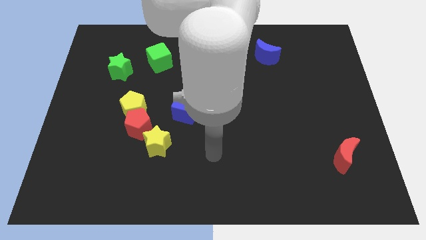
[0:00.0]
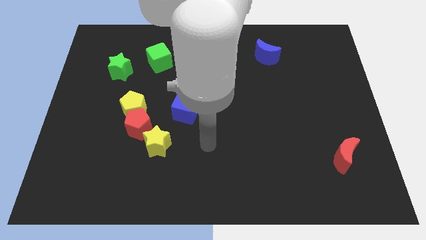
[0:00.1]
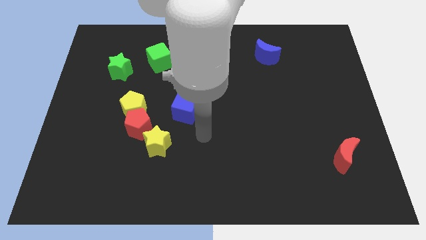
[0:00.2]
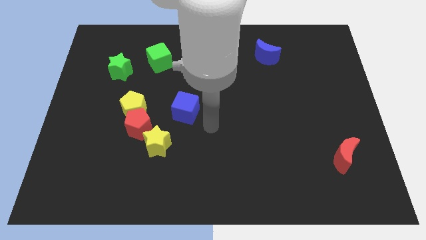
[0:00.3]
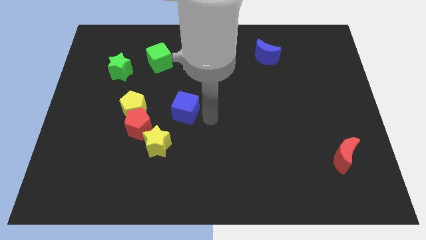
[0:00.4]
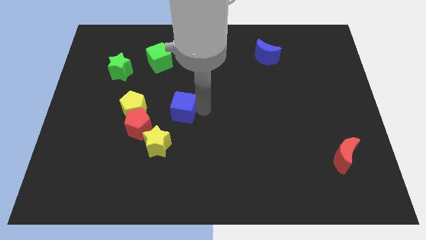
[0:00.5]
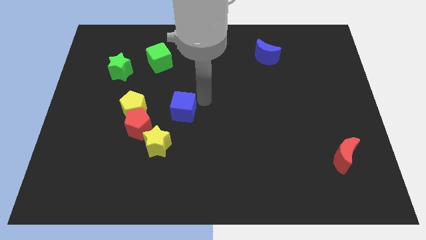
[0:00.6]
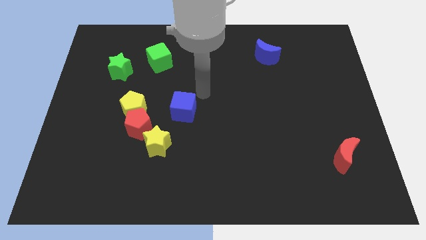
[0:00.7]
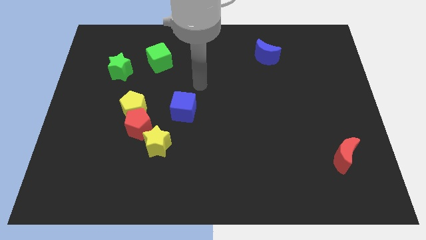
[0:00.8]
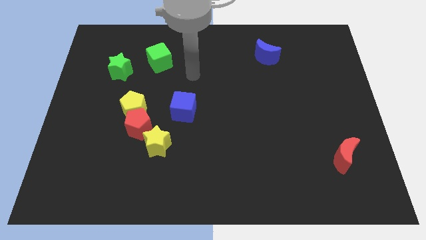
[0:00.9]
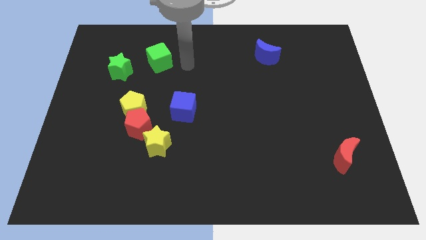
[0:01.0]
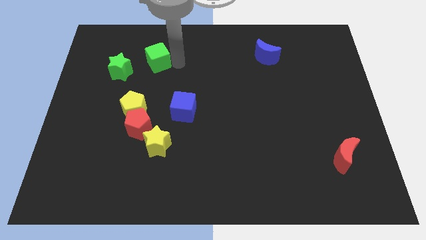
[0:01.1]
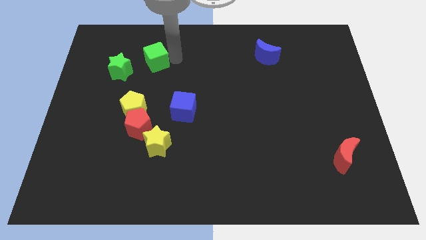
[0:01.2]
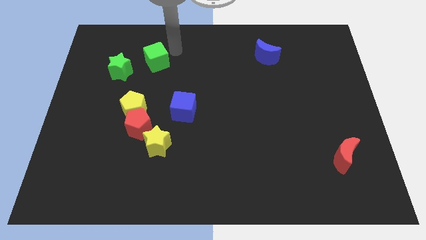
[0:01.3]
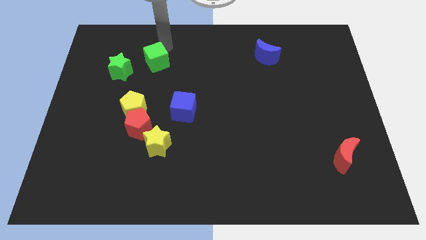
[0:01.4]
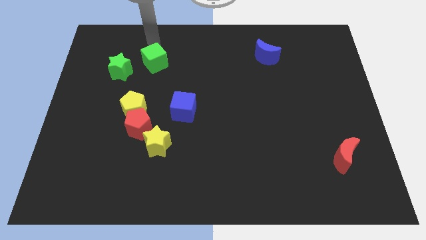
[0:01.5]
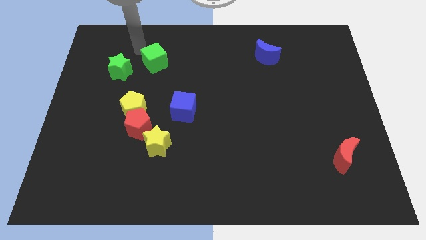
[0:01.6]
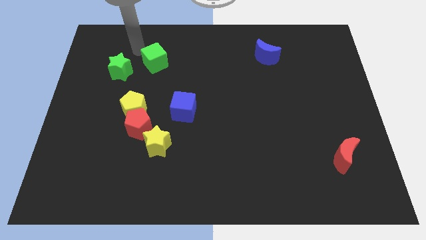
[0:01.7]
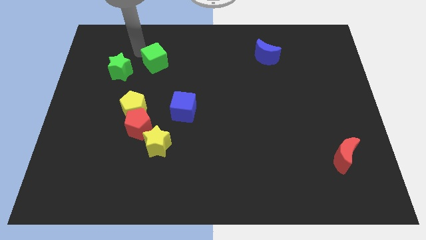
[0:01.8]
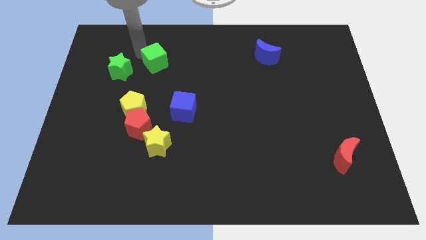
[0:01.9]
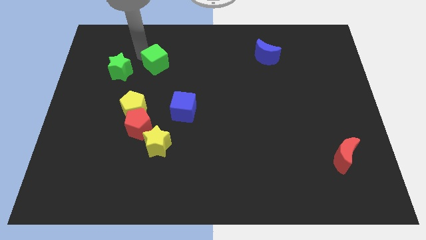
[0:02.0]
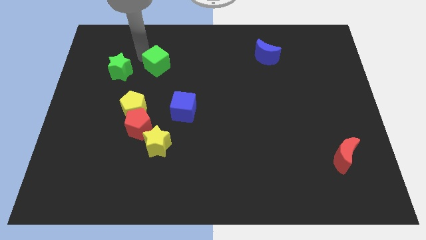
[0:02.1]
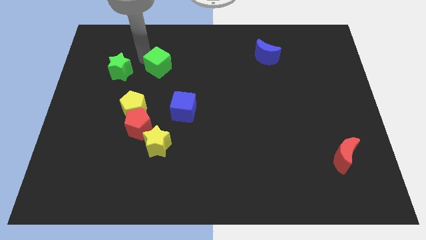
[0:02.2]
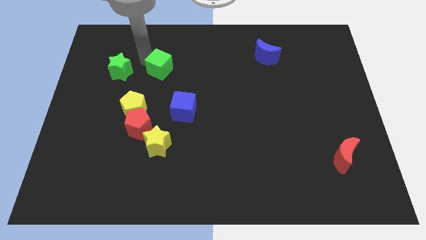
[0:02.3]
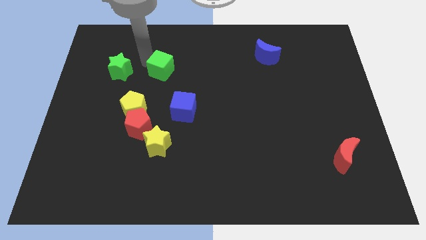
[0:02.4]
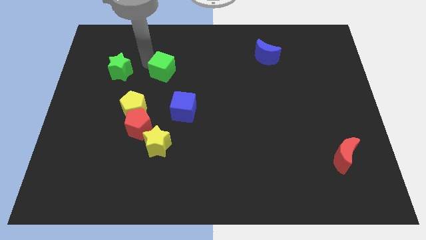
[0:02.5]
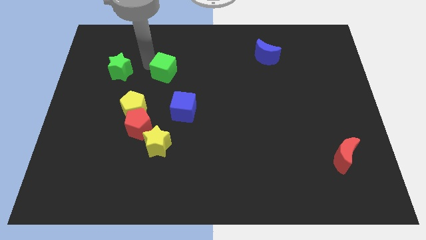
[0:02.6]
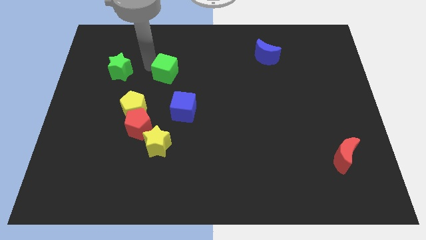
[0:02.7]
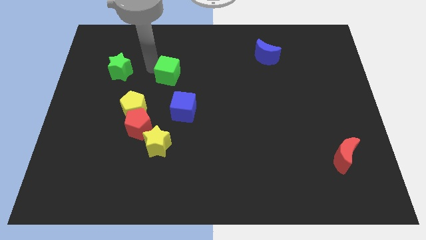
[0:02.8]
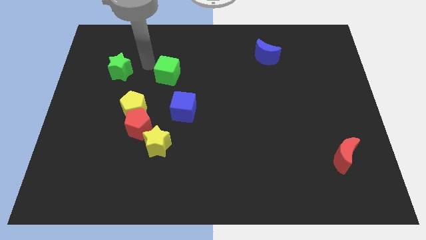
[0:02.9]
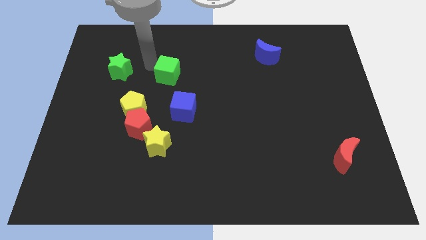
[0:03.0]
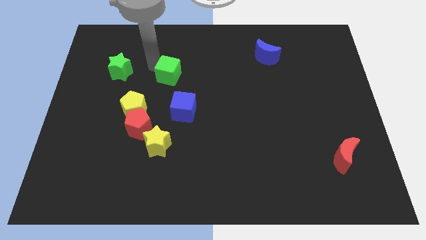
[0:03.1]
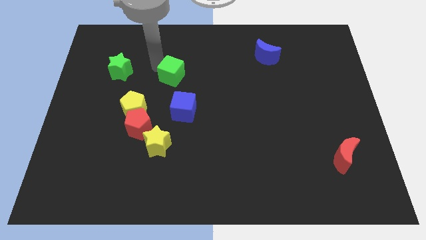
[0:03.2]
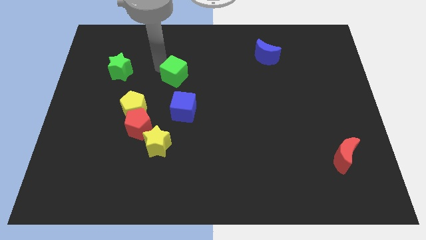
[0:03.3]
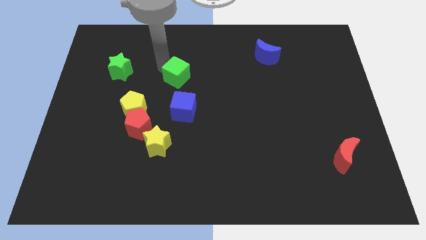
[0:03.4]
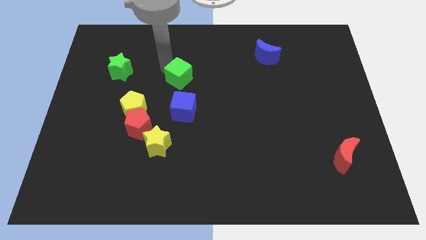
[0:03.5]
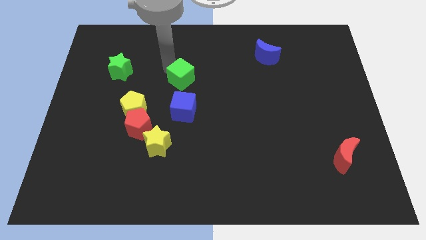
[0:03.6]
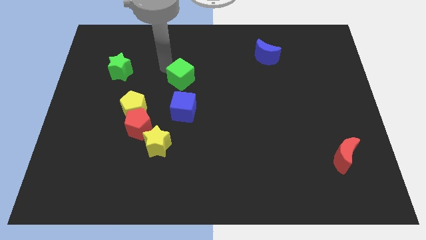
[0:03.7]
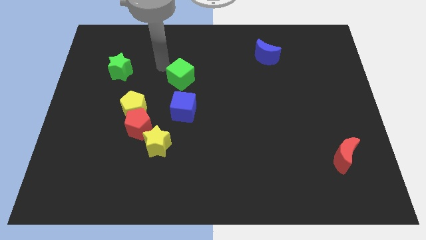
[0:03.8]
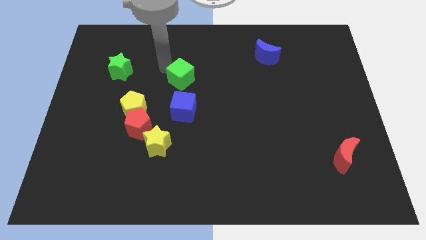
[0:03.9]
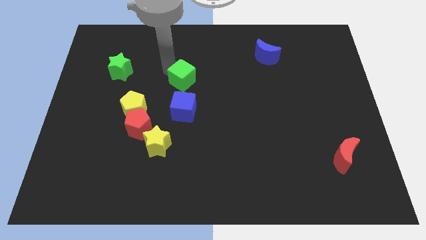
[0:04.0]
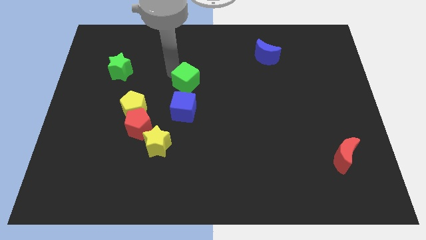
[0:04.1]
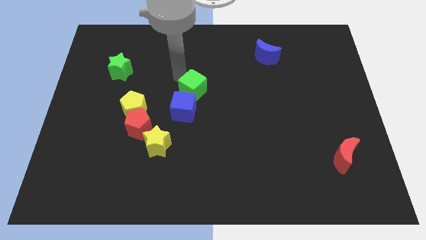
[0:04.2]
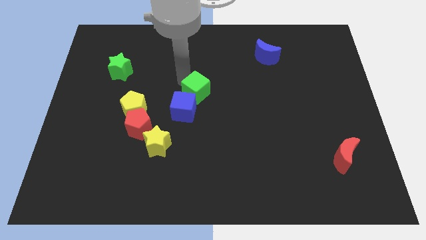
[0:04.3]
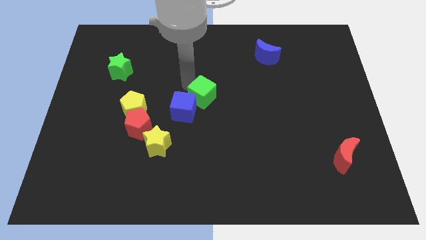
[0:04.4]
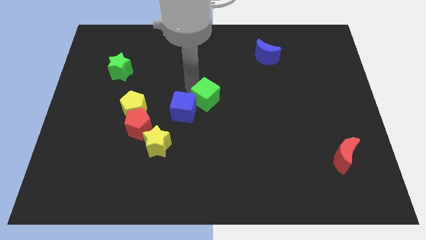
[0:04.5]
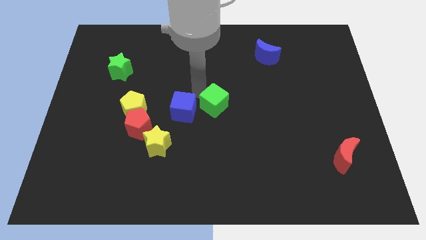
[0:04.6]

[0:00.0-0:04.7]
slide the green cube downwards and right

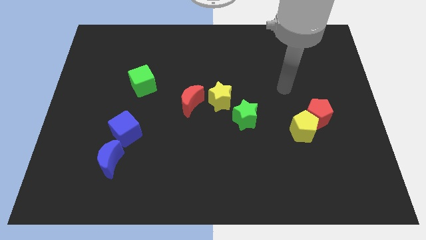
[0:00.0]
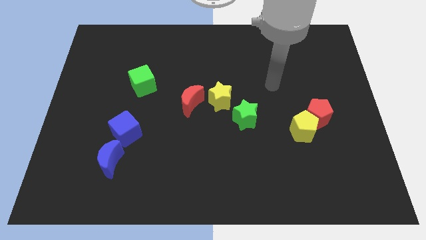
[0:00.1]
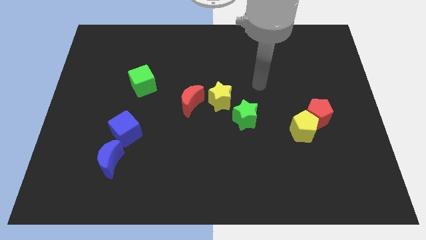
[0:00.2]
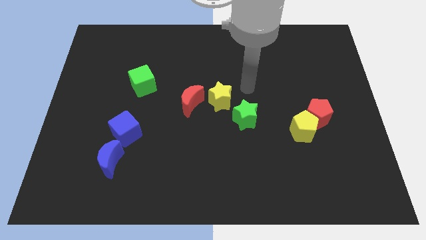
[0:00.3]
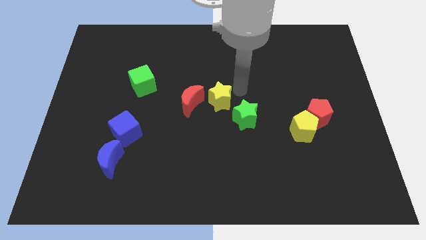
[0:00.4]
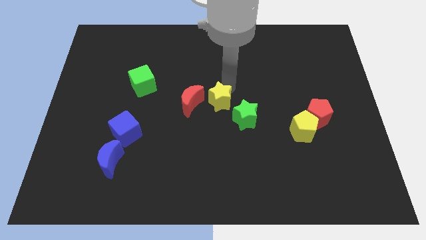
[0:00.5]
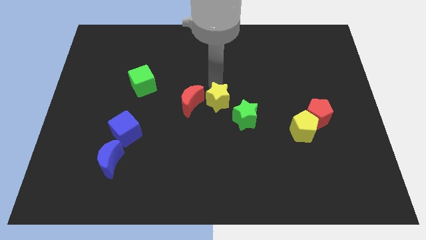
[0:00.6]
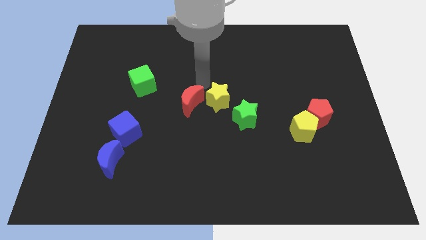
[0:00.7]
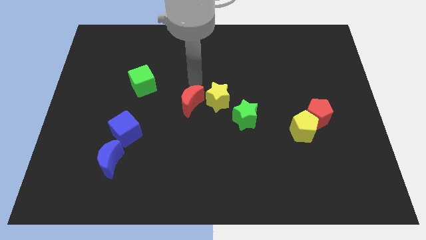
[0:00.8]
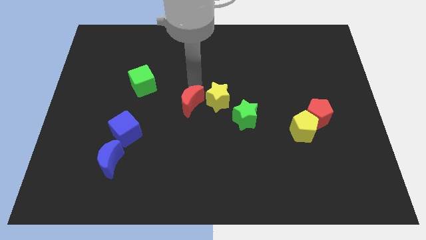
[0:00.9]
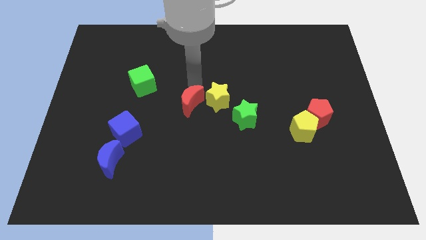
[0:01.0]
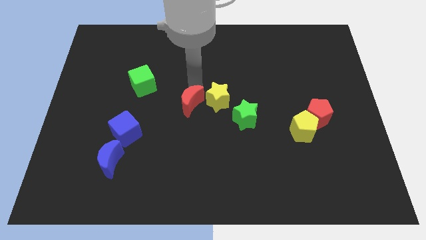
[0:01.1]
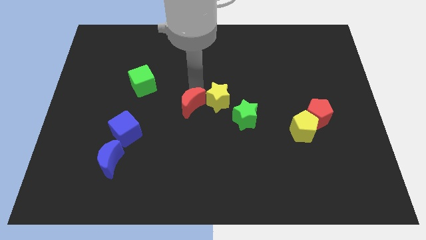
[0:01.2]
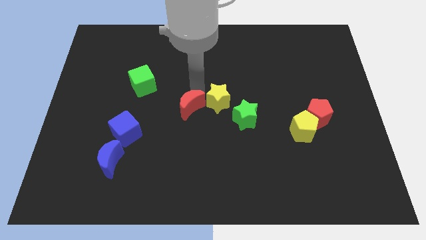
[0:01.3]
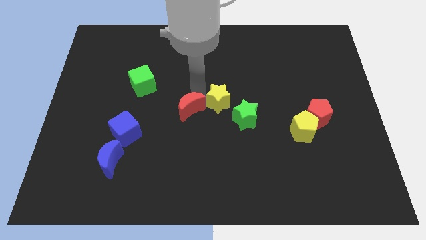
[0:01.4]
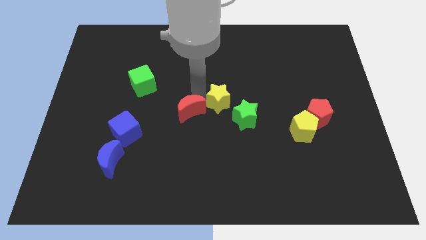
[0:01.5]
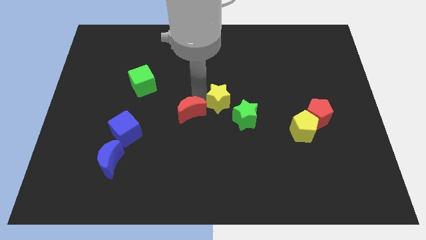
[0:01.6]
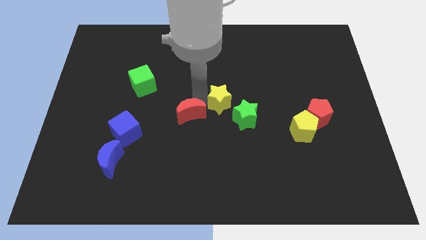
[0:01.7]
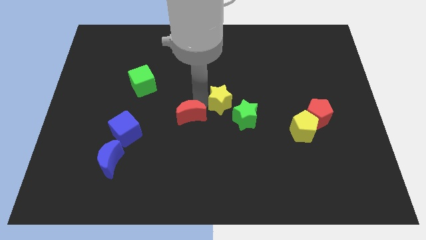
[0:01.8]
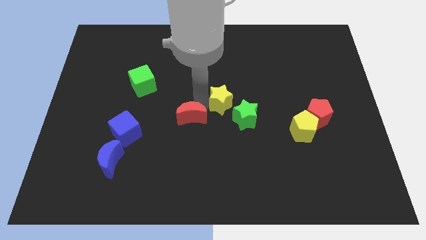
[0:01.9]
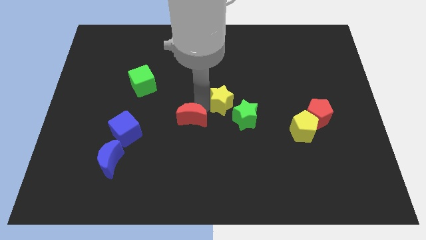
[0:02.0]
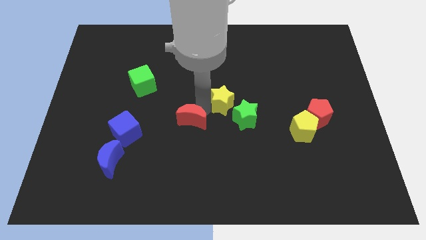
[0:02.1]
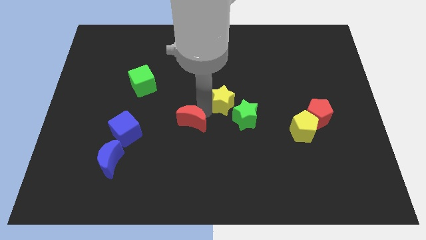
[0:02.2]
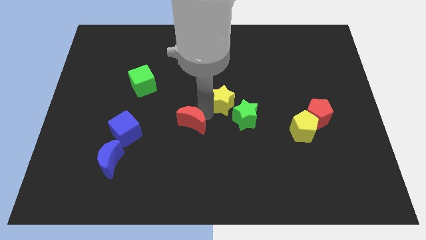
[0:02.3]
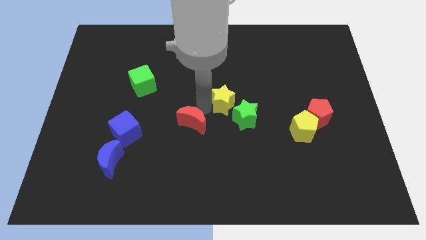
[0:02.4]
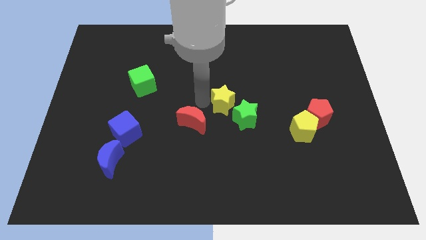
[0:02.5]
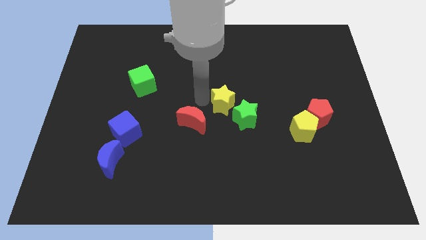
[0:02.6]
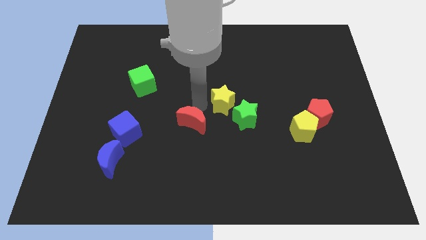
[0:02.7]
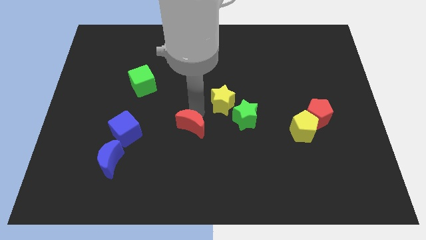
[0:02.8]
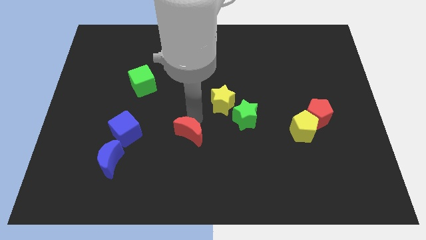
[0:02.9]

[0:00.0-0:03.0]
slightly move the red moon down

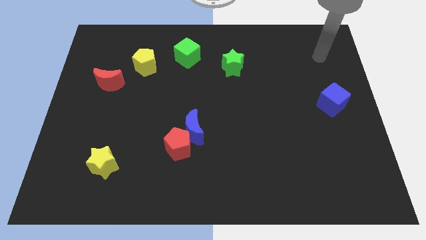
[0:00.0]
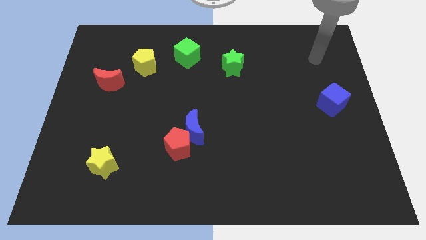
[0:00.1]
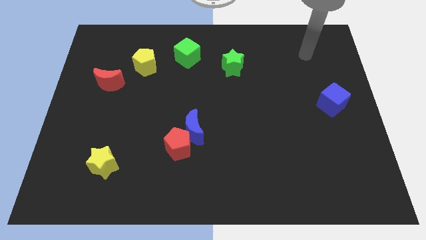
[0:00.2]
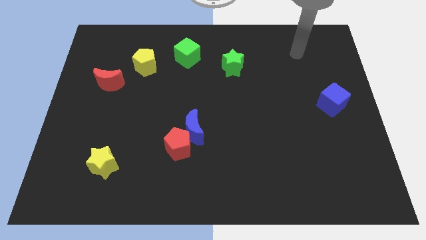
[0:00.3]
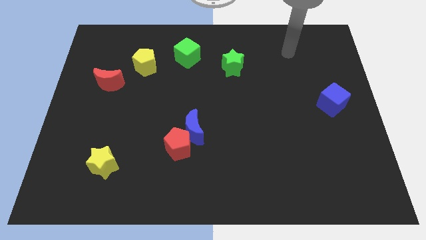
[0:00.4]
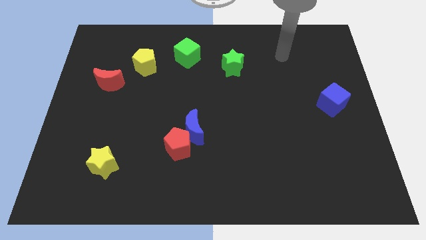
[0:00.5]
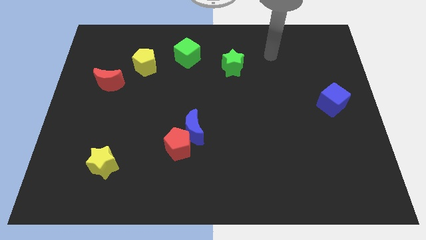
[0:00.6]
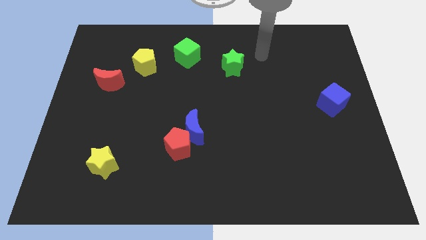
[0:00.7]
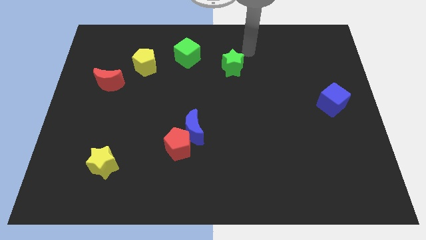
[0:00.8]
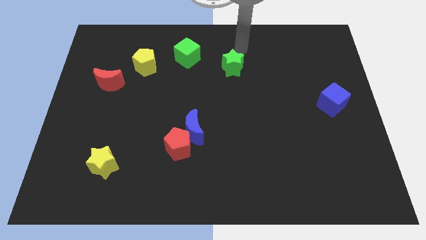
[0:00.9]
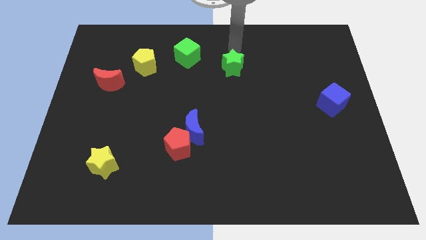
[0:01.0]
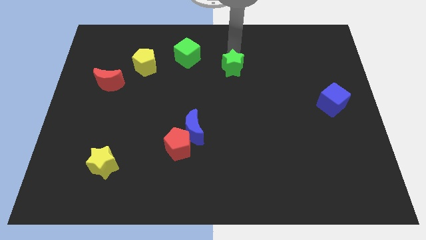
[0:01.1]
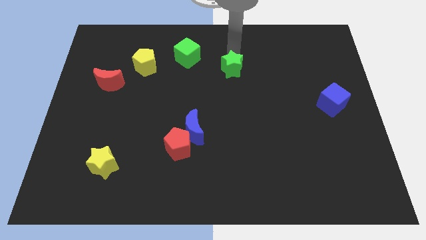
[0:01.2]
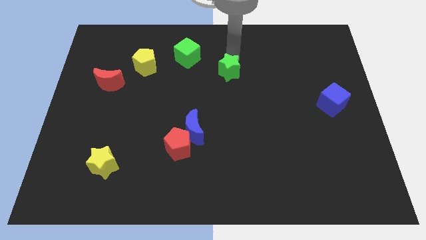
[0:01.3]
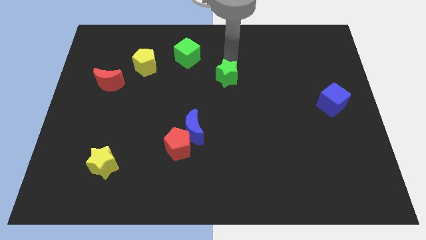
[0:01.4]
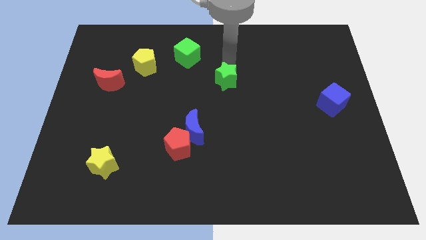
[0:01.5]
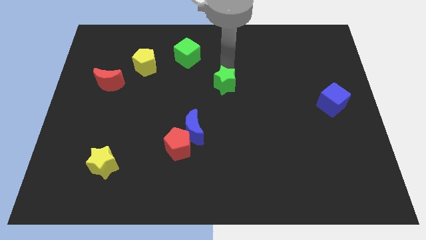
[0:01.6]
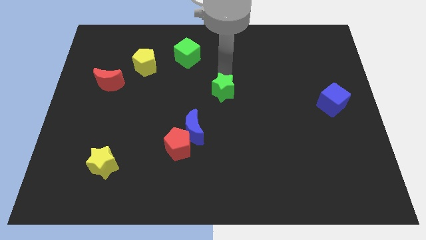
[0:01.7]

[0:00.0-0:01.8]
move the green star a bit down
